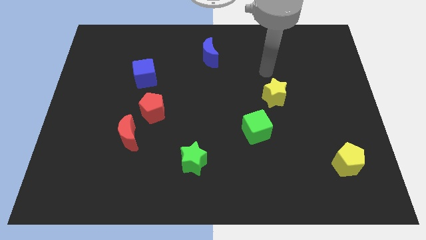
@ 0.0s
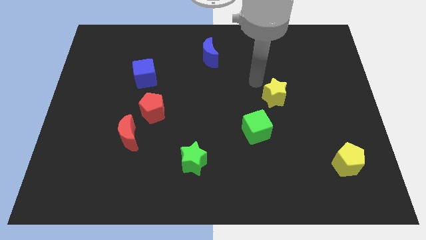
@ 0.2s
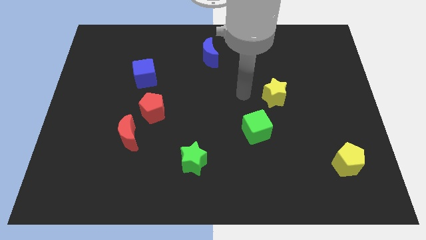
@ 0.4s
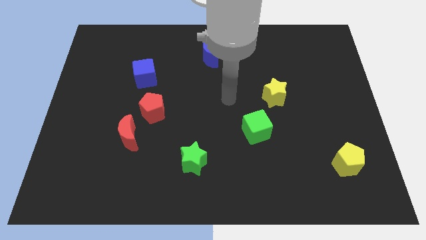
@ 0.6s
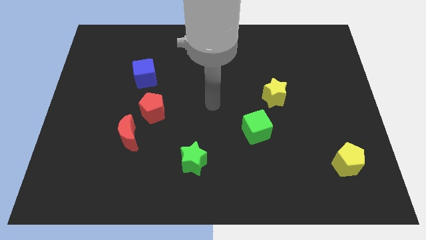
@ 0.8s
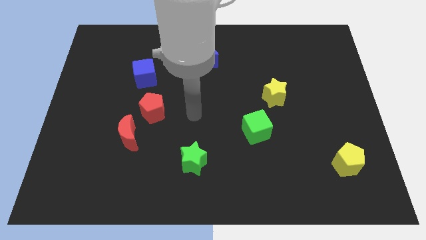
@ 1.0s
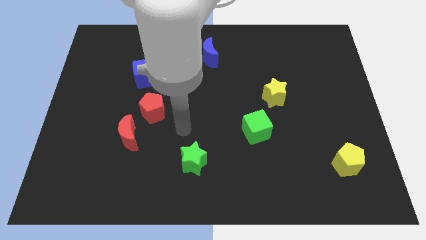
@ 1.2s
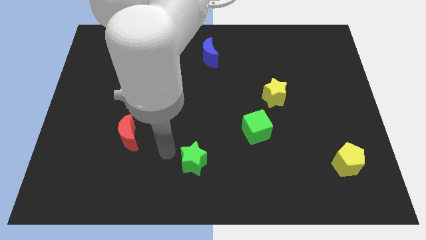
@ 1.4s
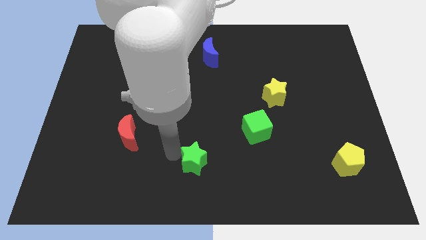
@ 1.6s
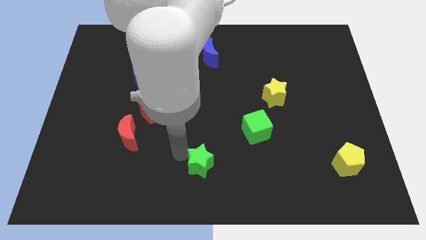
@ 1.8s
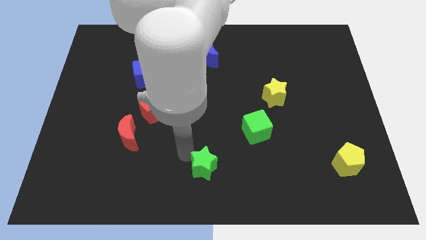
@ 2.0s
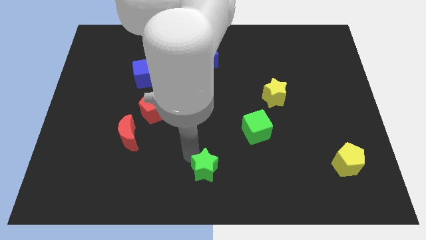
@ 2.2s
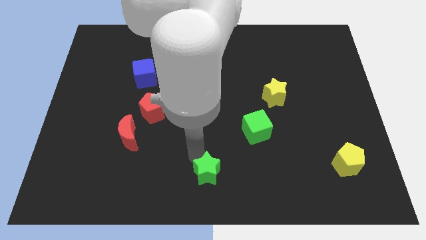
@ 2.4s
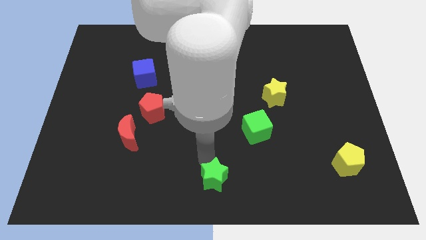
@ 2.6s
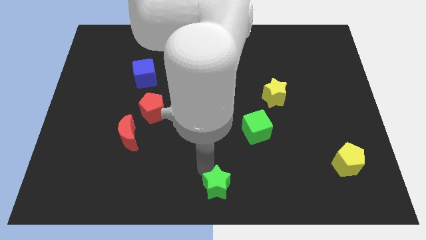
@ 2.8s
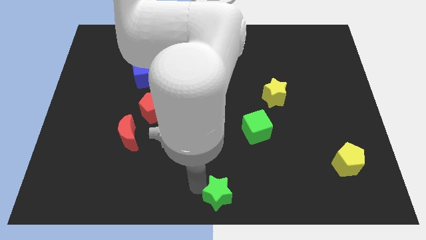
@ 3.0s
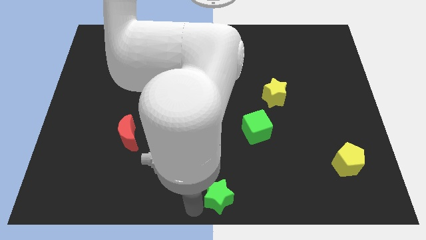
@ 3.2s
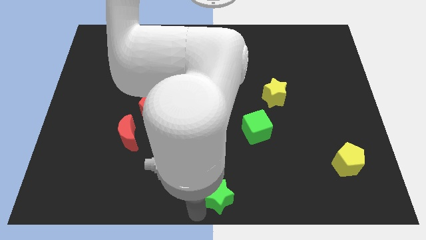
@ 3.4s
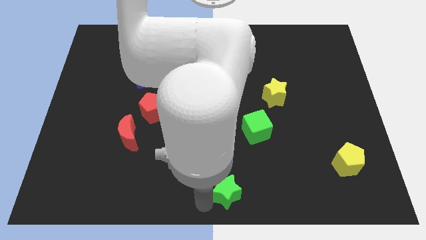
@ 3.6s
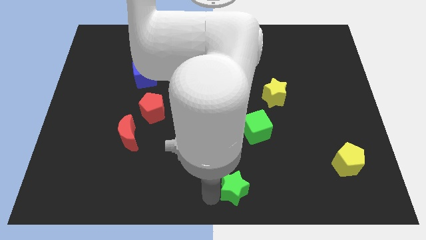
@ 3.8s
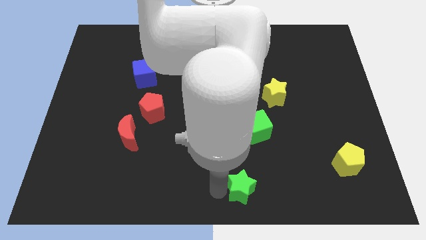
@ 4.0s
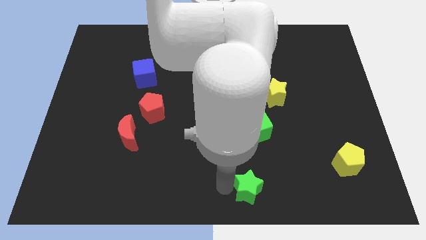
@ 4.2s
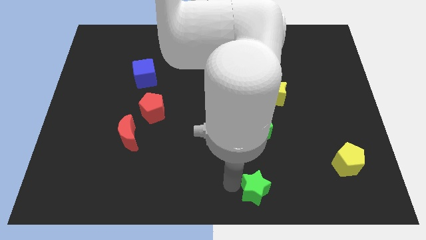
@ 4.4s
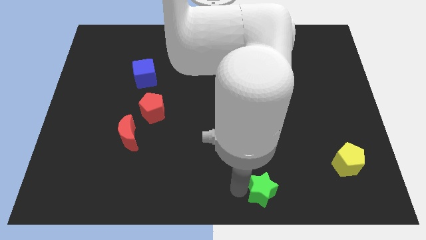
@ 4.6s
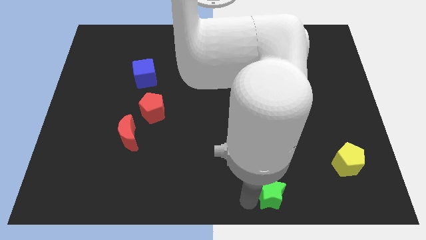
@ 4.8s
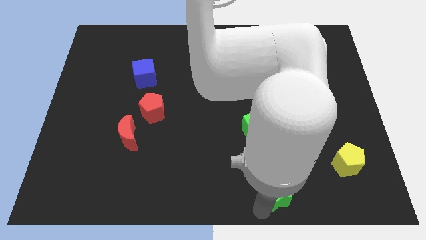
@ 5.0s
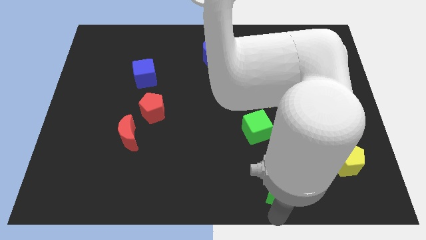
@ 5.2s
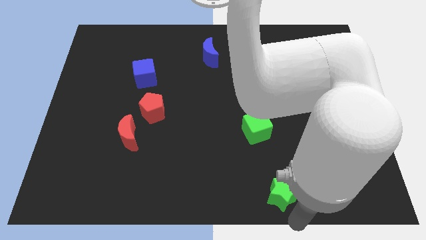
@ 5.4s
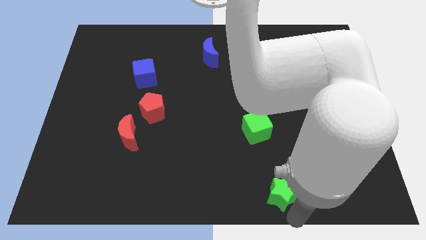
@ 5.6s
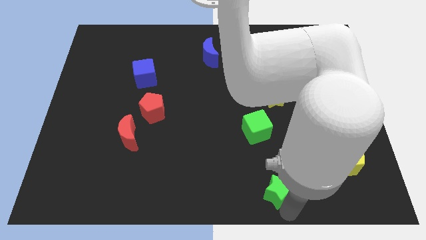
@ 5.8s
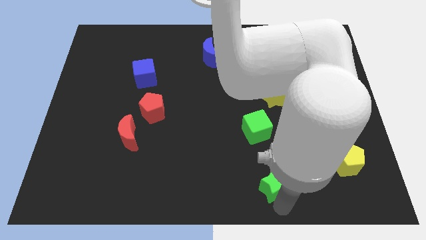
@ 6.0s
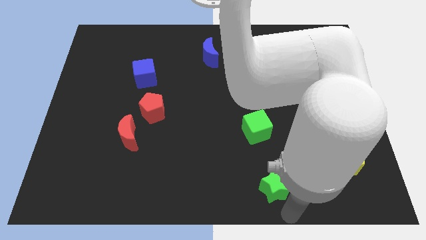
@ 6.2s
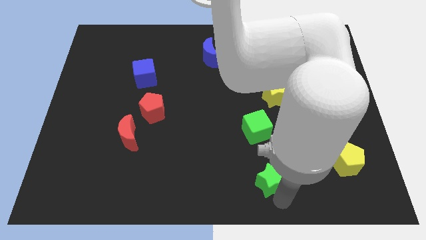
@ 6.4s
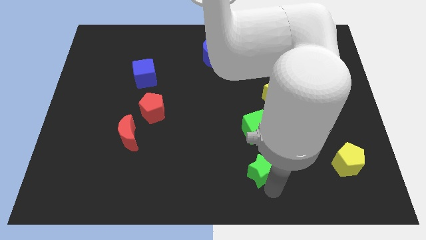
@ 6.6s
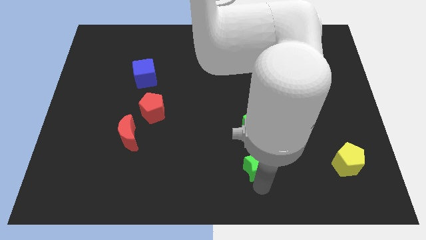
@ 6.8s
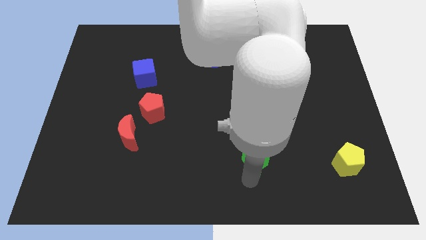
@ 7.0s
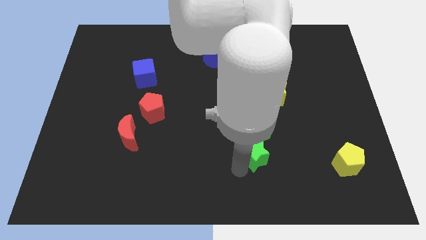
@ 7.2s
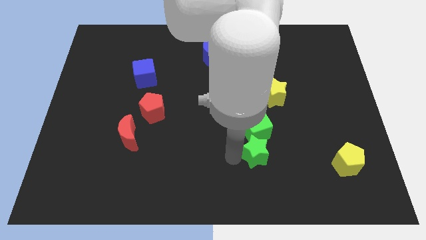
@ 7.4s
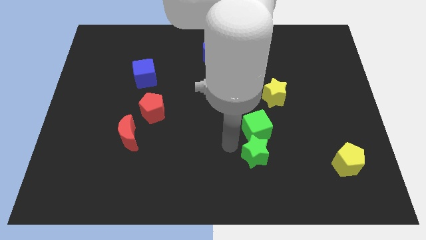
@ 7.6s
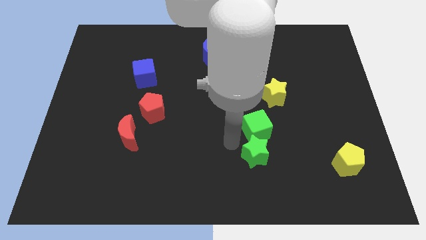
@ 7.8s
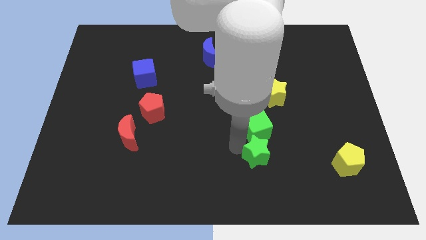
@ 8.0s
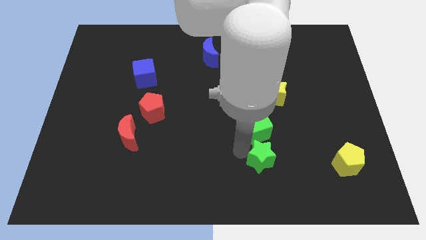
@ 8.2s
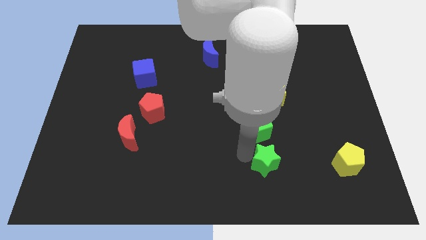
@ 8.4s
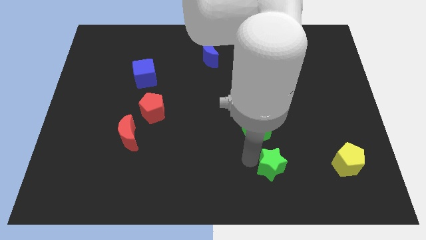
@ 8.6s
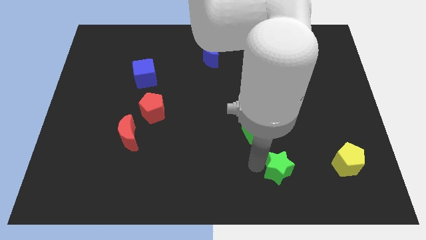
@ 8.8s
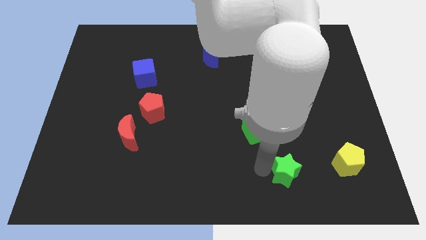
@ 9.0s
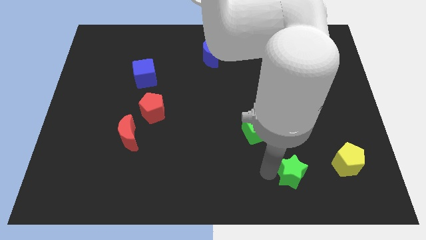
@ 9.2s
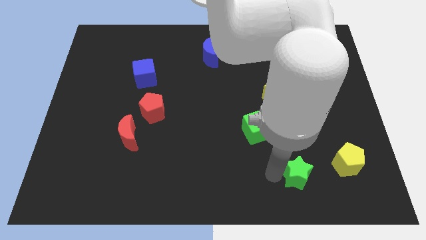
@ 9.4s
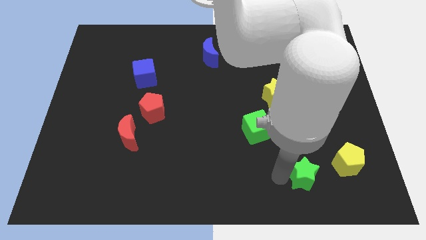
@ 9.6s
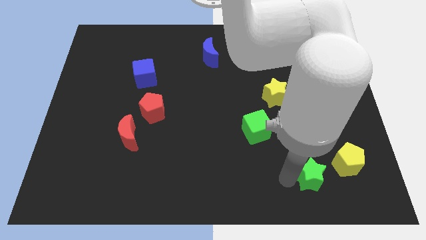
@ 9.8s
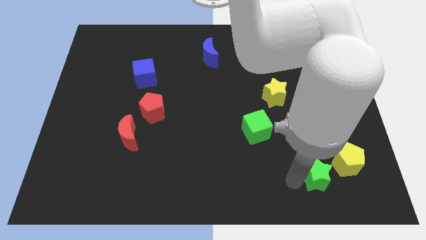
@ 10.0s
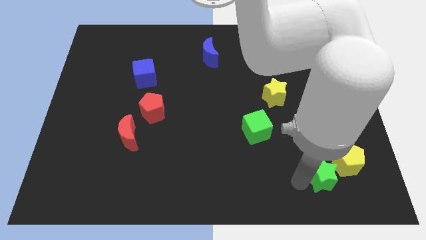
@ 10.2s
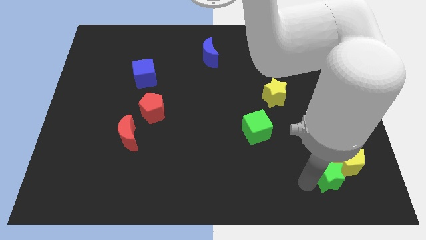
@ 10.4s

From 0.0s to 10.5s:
push the green star towards the yellow pentagon

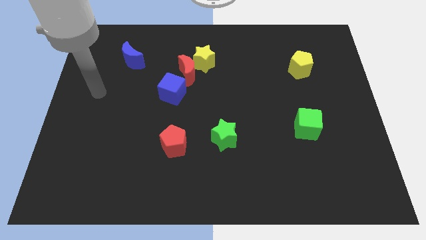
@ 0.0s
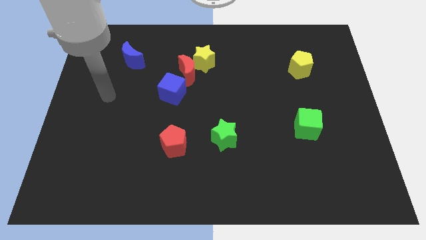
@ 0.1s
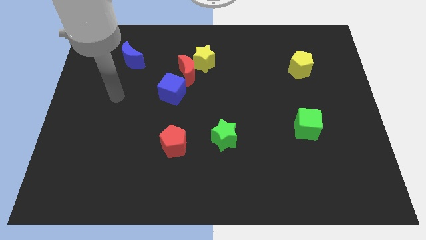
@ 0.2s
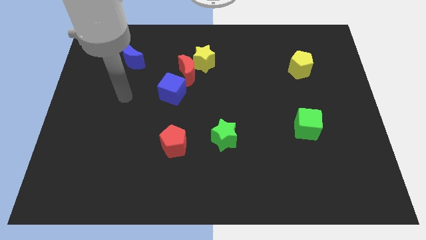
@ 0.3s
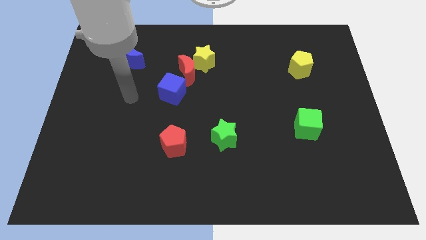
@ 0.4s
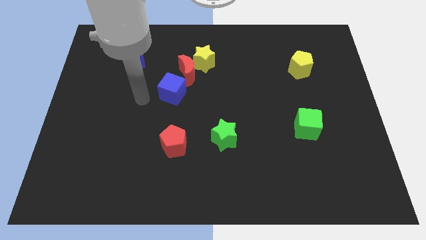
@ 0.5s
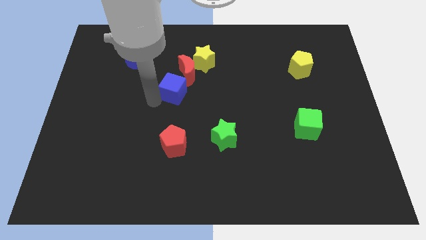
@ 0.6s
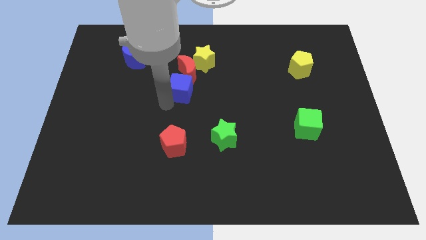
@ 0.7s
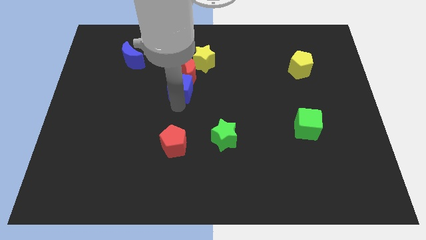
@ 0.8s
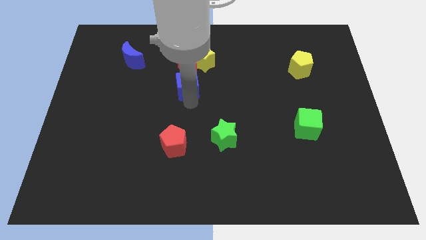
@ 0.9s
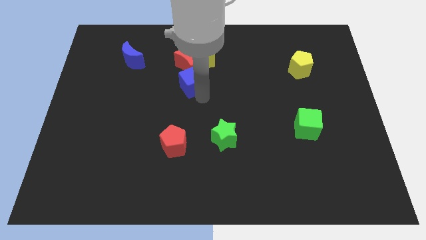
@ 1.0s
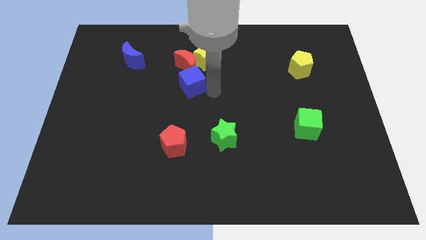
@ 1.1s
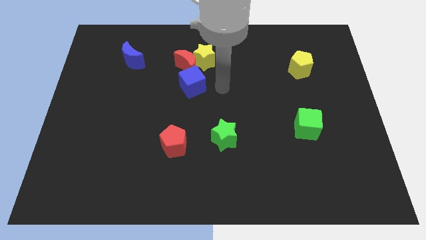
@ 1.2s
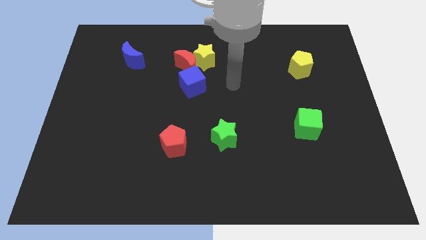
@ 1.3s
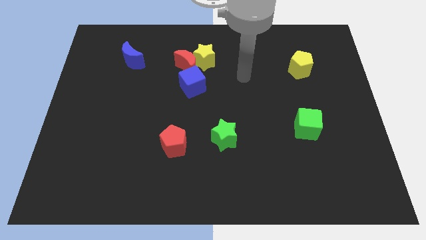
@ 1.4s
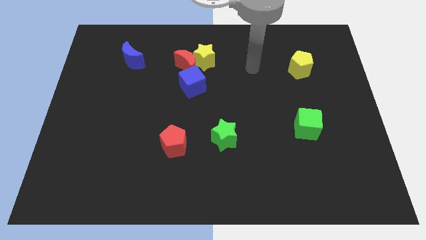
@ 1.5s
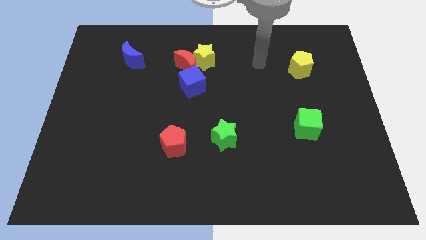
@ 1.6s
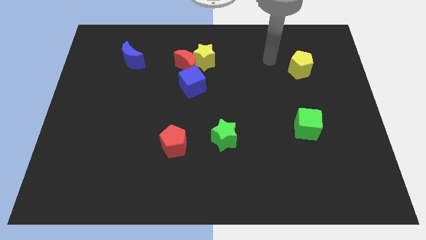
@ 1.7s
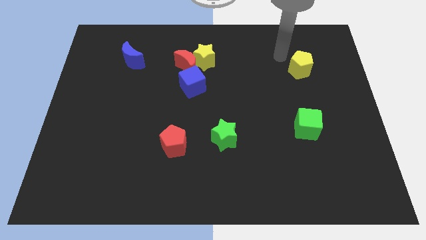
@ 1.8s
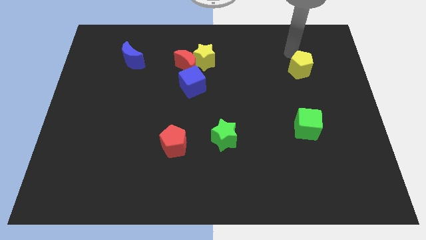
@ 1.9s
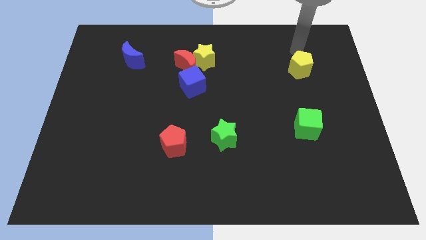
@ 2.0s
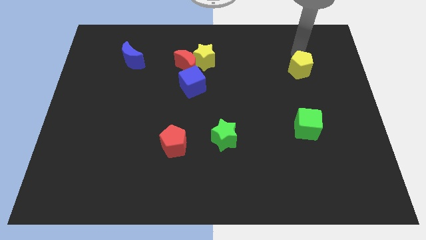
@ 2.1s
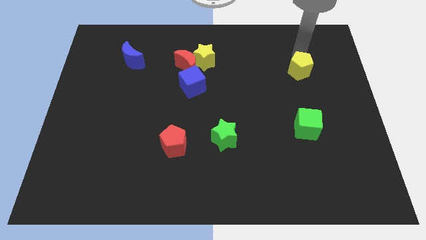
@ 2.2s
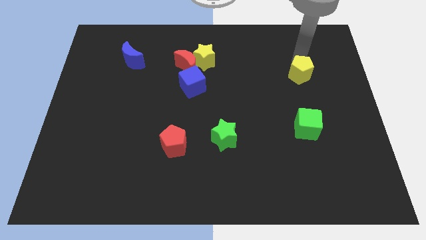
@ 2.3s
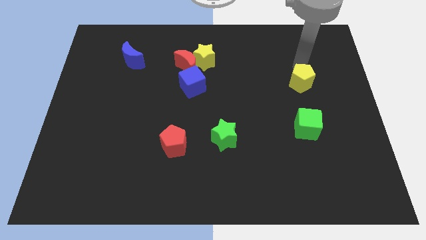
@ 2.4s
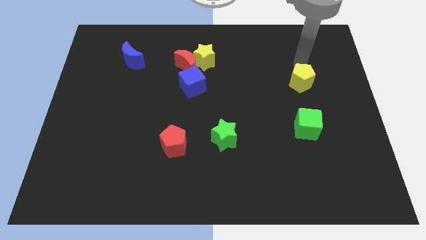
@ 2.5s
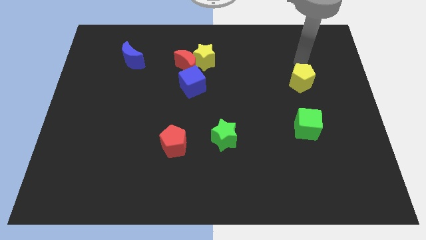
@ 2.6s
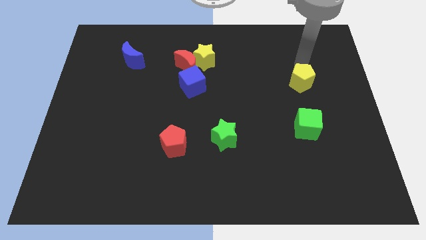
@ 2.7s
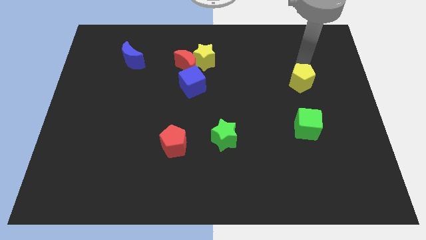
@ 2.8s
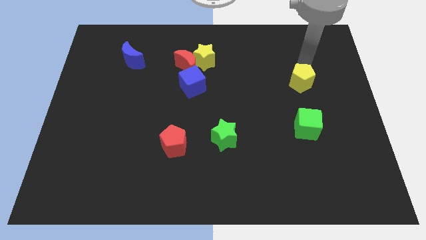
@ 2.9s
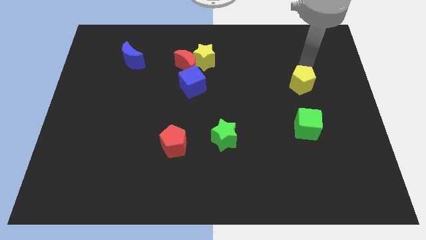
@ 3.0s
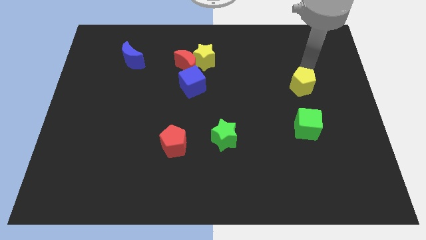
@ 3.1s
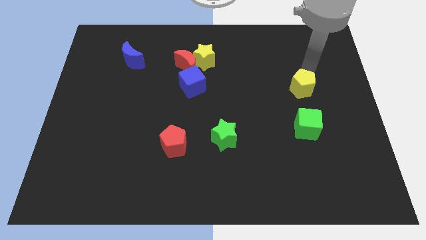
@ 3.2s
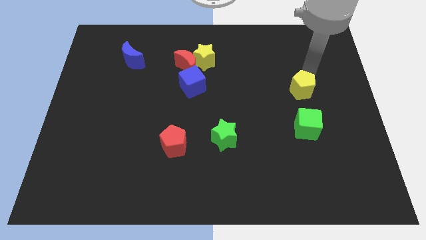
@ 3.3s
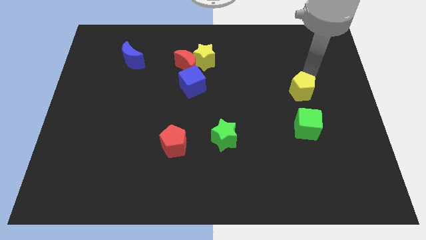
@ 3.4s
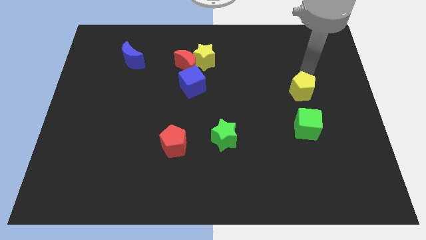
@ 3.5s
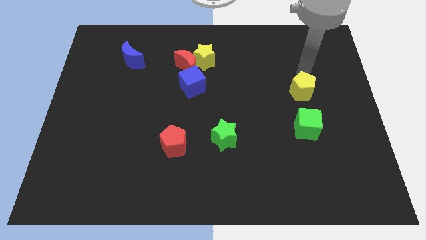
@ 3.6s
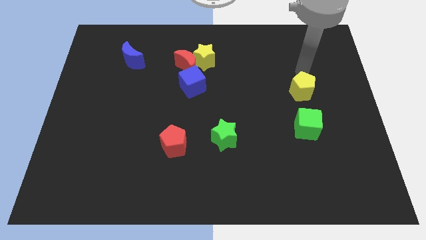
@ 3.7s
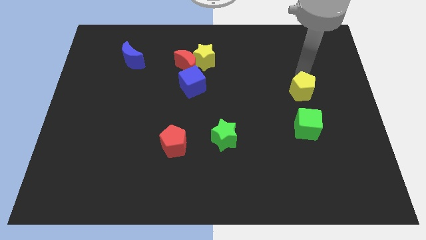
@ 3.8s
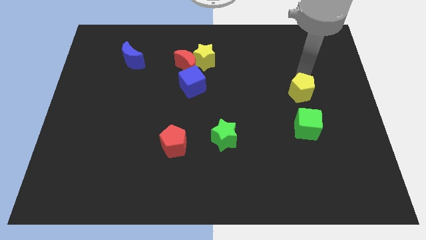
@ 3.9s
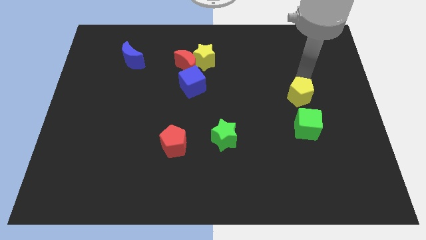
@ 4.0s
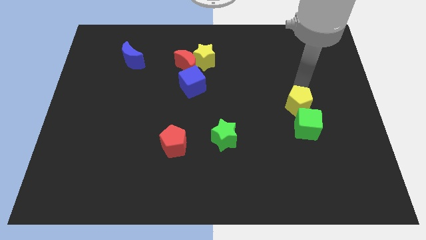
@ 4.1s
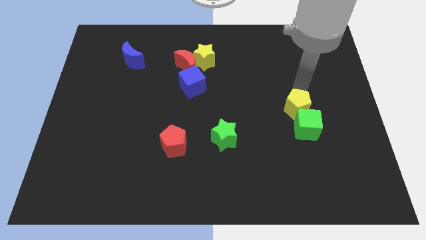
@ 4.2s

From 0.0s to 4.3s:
put the yellow pentagon next to the green cube
